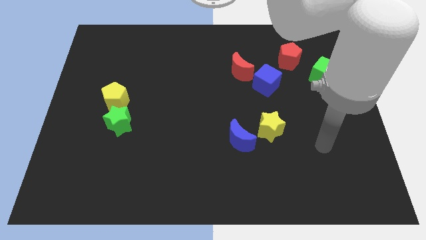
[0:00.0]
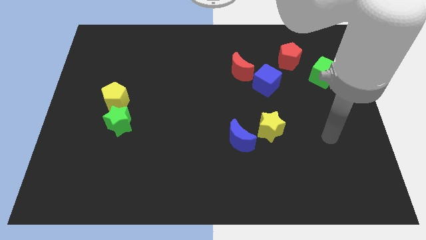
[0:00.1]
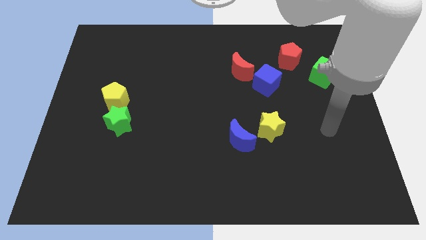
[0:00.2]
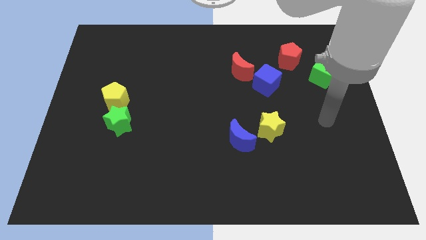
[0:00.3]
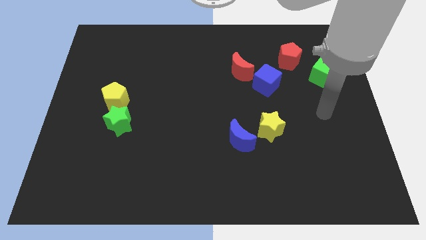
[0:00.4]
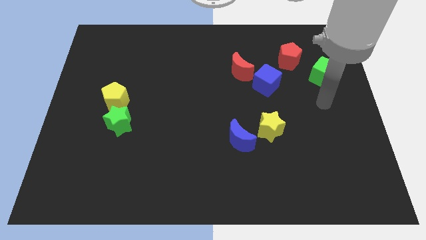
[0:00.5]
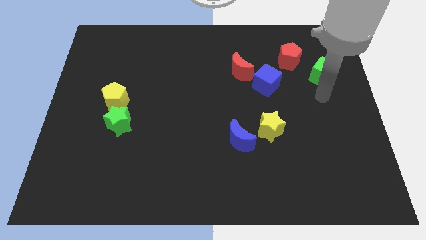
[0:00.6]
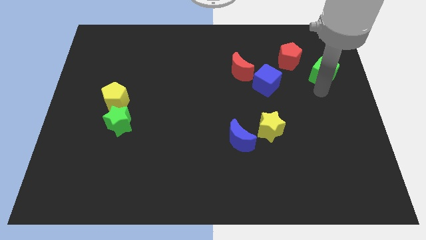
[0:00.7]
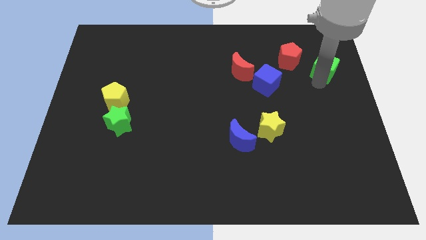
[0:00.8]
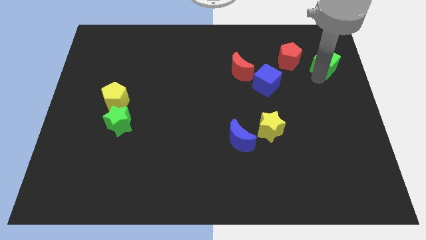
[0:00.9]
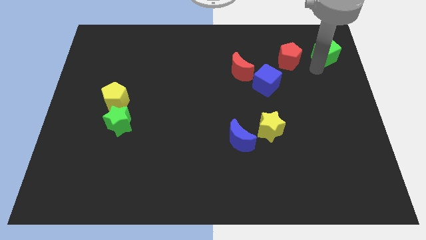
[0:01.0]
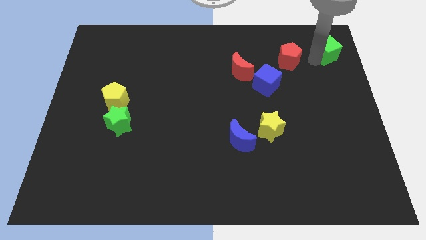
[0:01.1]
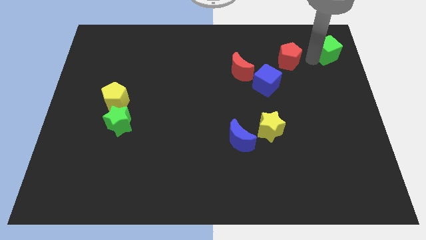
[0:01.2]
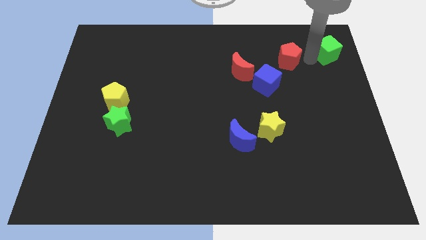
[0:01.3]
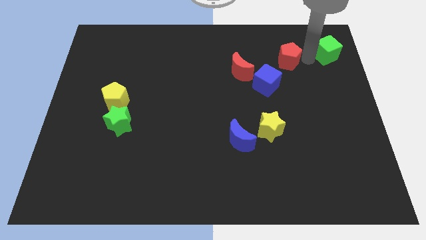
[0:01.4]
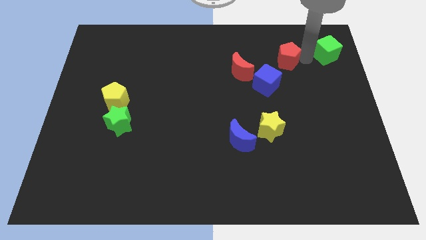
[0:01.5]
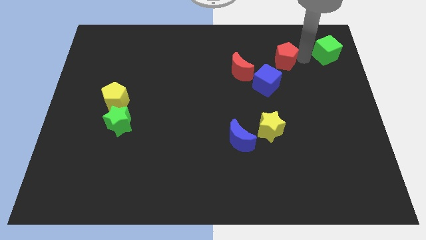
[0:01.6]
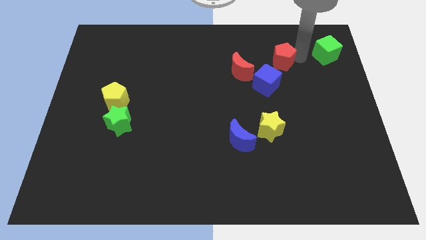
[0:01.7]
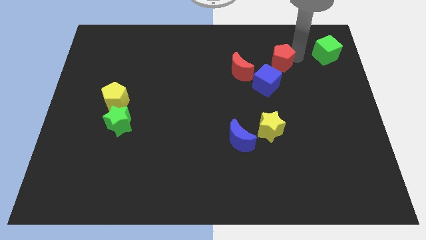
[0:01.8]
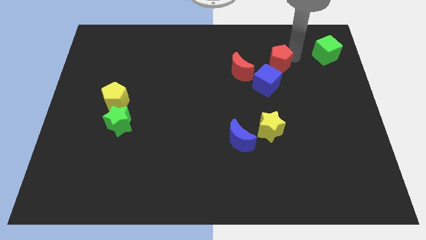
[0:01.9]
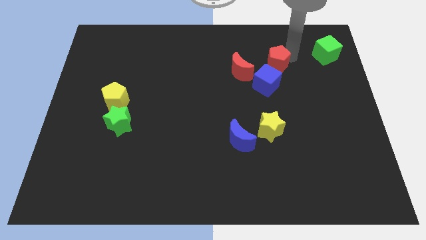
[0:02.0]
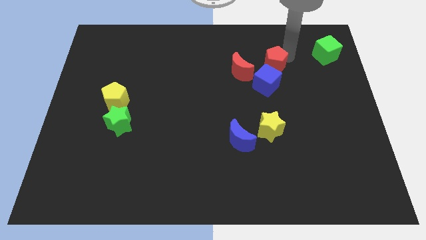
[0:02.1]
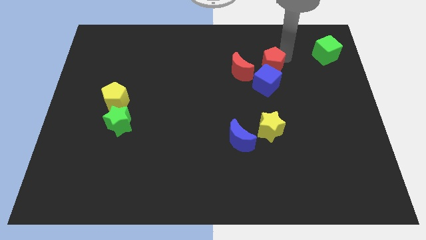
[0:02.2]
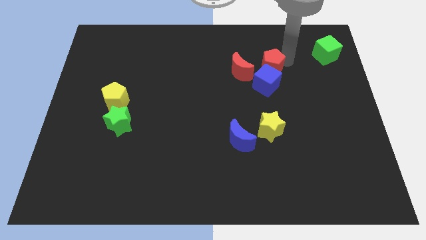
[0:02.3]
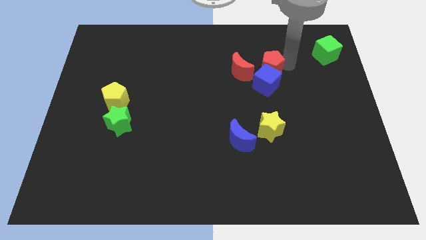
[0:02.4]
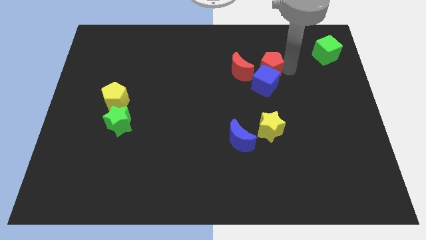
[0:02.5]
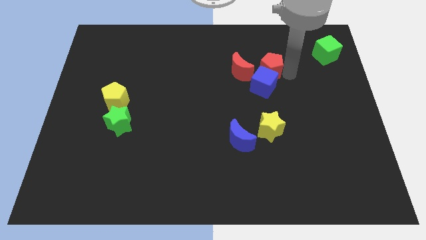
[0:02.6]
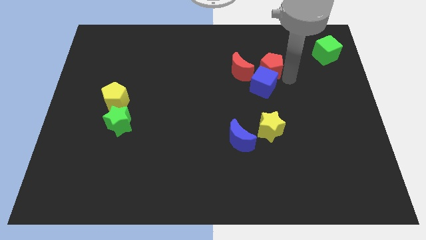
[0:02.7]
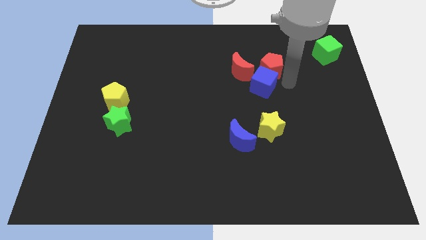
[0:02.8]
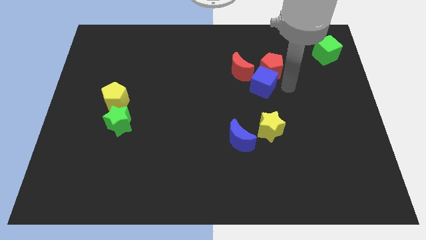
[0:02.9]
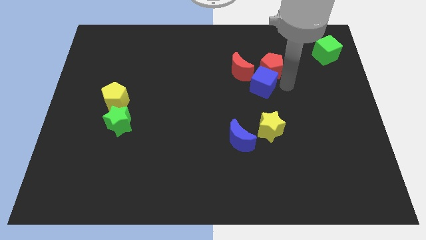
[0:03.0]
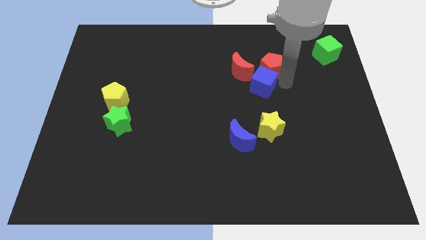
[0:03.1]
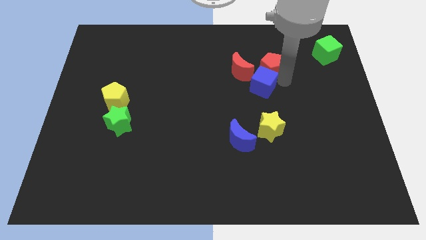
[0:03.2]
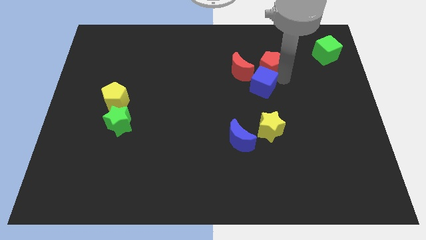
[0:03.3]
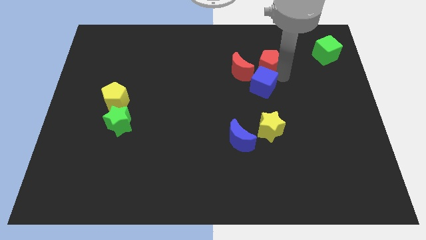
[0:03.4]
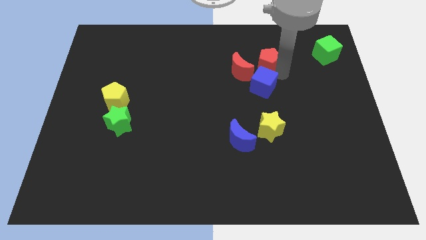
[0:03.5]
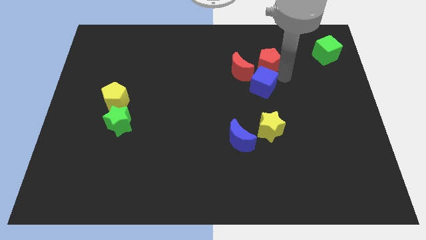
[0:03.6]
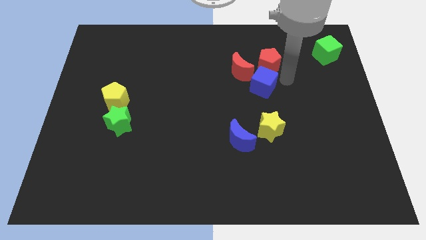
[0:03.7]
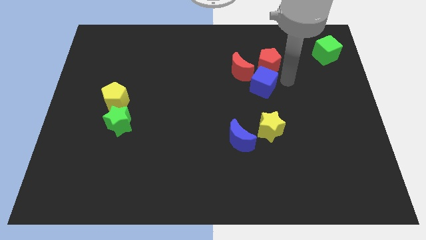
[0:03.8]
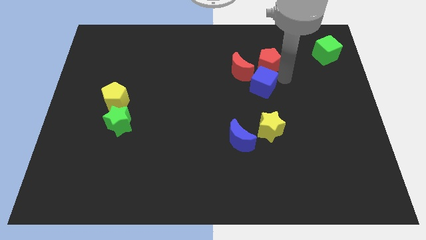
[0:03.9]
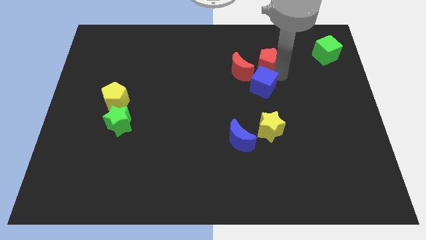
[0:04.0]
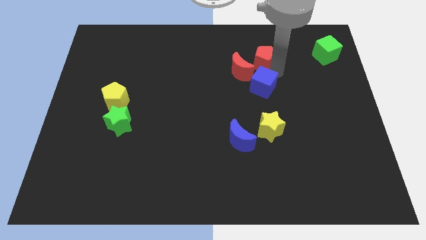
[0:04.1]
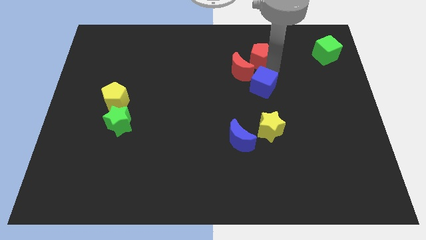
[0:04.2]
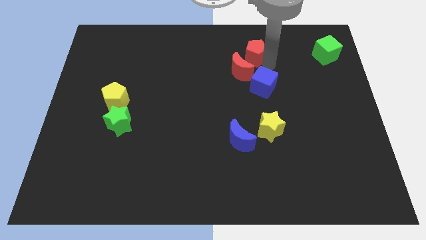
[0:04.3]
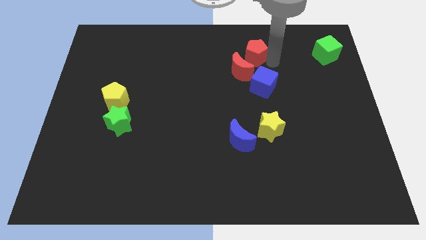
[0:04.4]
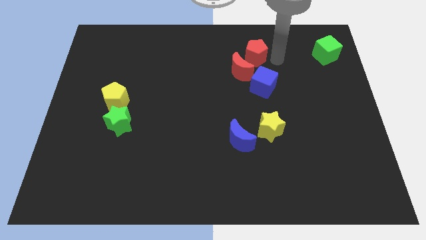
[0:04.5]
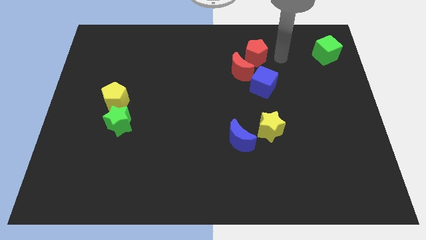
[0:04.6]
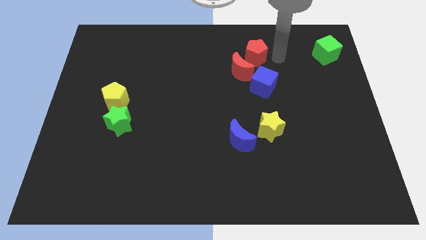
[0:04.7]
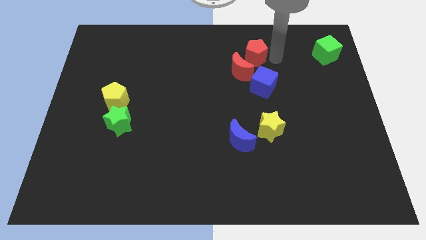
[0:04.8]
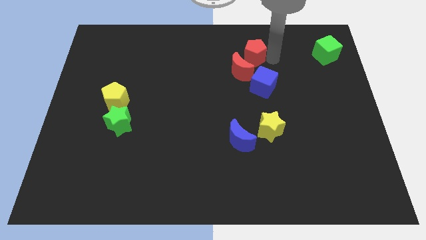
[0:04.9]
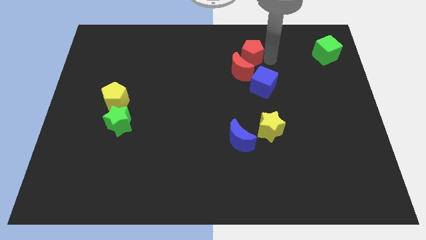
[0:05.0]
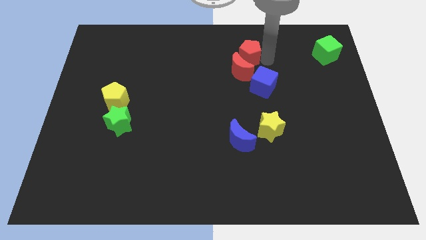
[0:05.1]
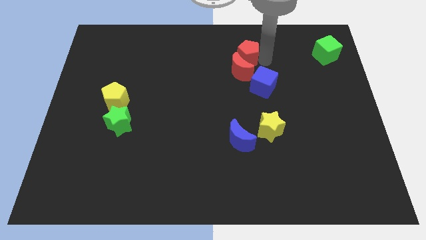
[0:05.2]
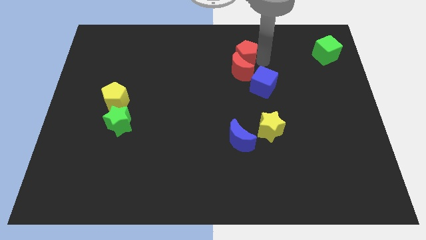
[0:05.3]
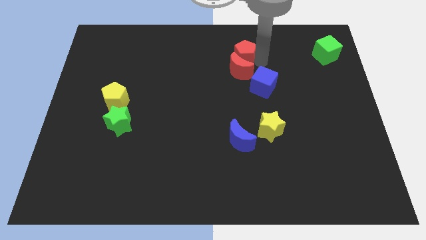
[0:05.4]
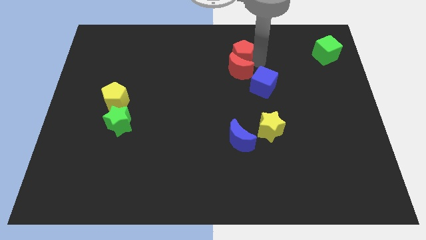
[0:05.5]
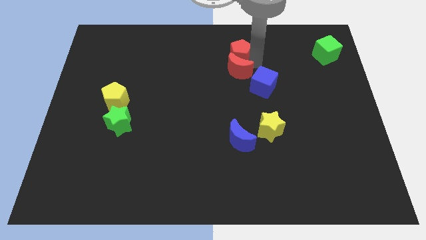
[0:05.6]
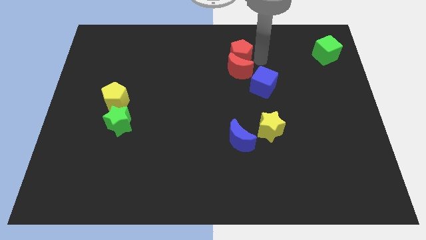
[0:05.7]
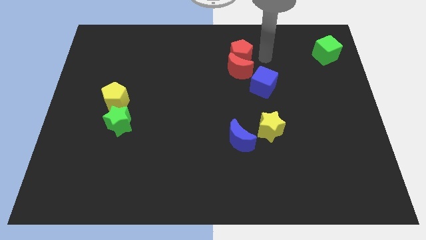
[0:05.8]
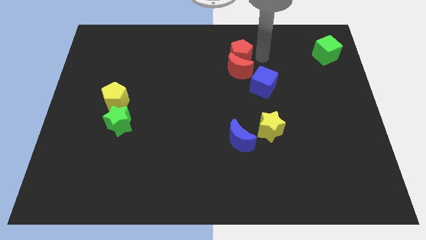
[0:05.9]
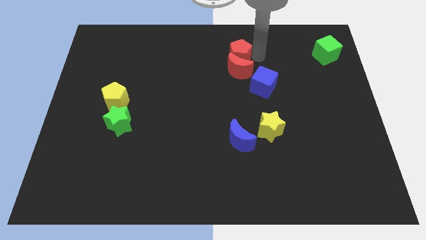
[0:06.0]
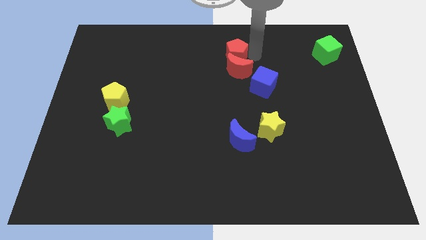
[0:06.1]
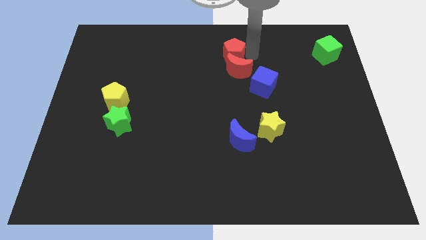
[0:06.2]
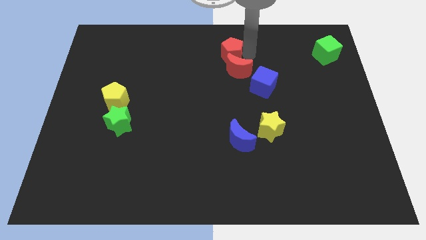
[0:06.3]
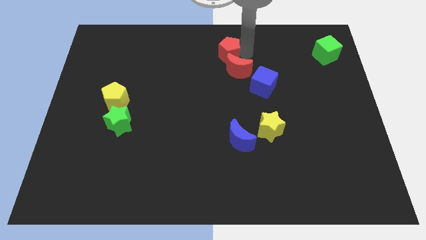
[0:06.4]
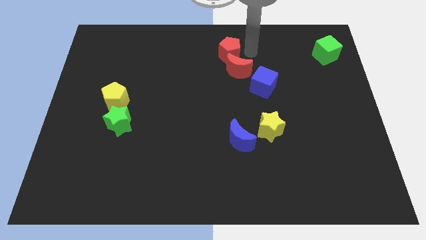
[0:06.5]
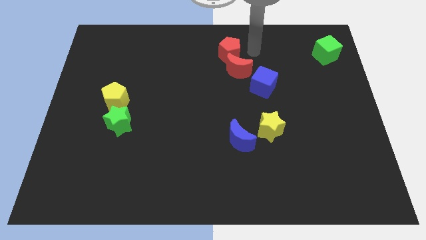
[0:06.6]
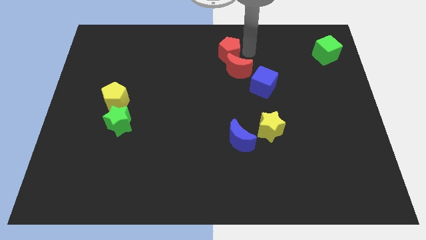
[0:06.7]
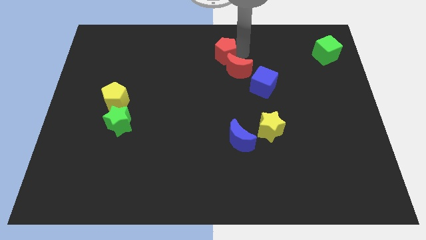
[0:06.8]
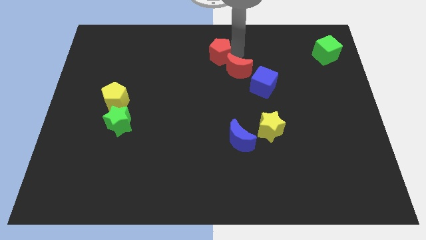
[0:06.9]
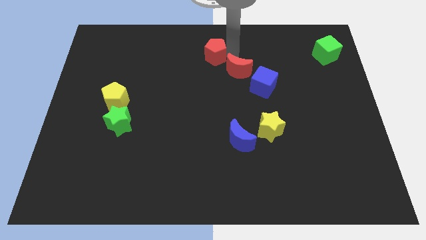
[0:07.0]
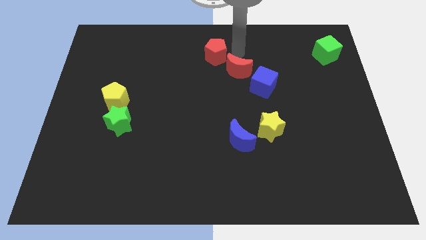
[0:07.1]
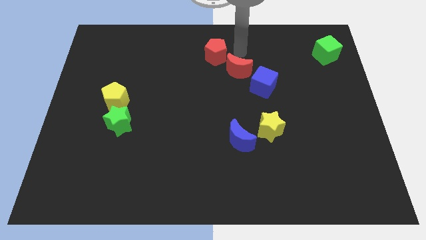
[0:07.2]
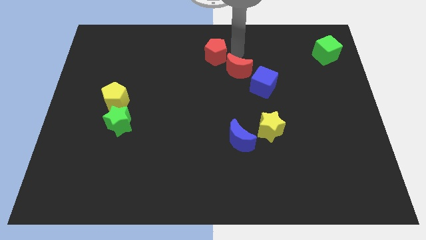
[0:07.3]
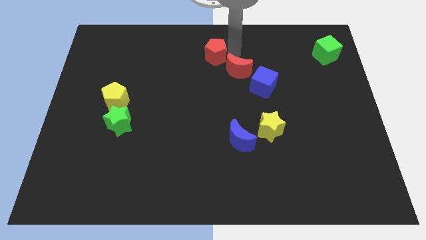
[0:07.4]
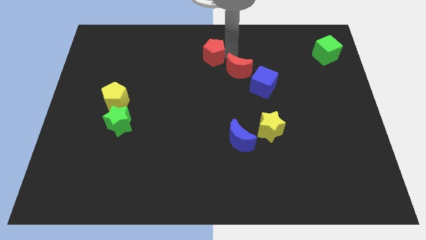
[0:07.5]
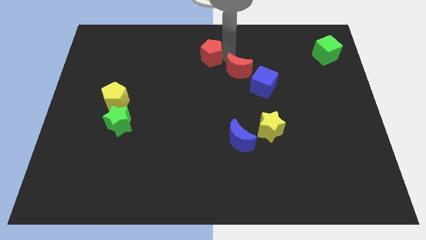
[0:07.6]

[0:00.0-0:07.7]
move the red pentagon to the left

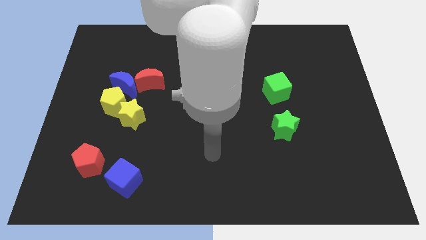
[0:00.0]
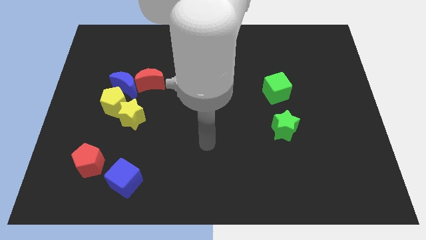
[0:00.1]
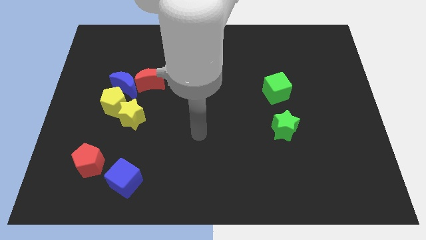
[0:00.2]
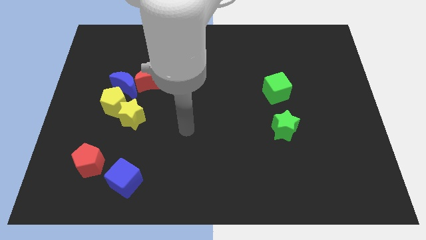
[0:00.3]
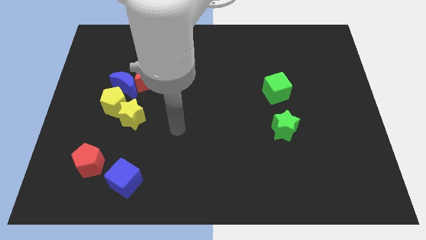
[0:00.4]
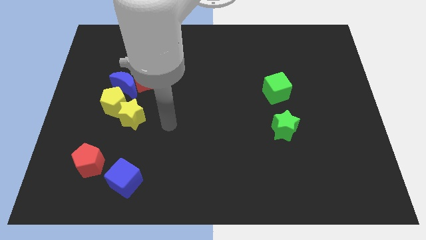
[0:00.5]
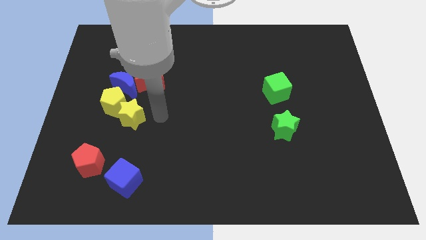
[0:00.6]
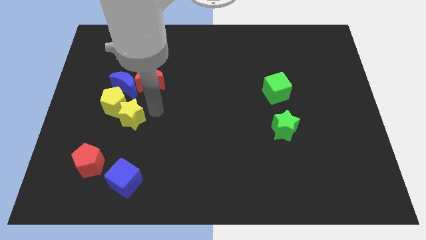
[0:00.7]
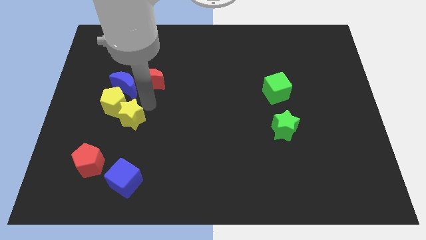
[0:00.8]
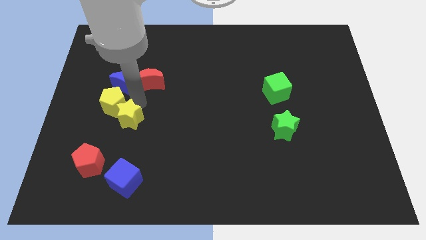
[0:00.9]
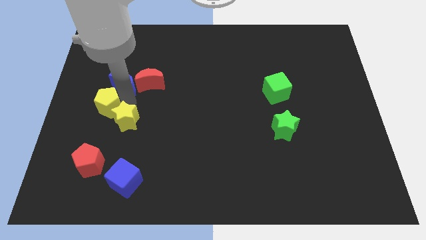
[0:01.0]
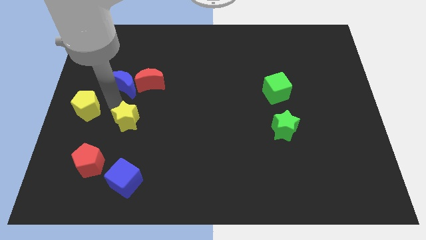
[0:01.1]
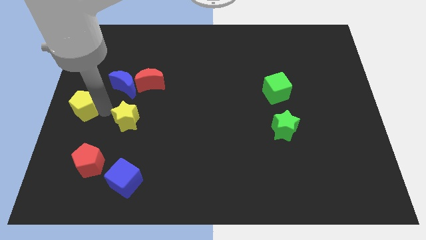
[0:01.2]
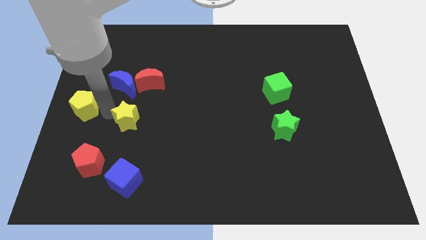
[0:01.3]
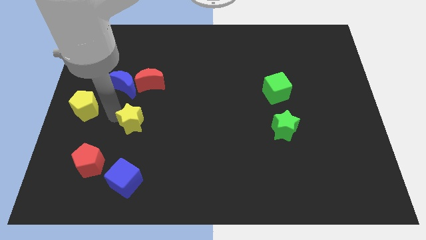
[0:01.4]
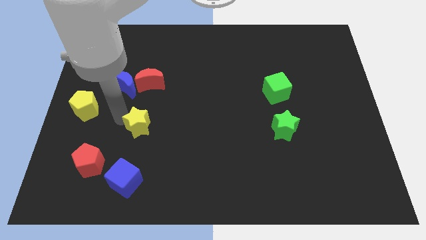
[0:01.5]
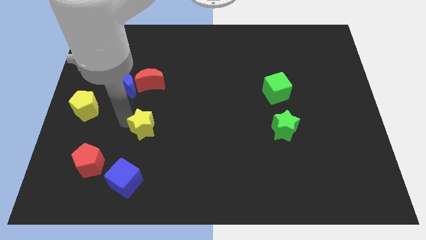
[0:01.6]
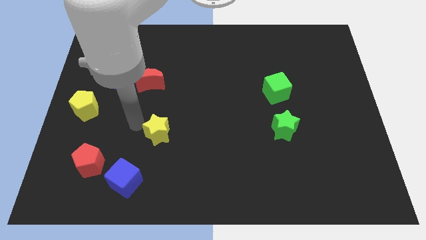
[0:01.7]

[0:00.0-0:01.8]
push the yellow star a bit diagonally downwards and to the right
